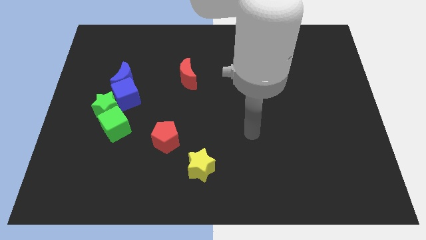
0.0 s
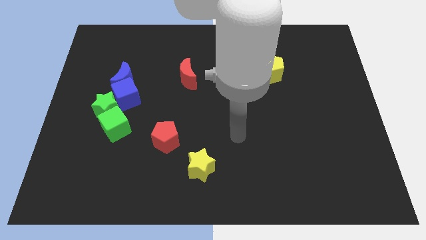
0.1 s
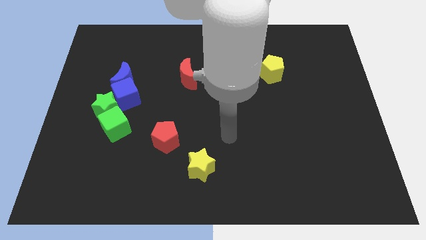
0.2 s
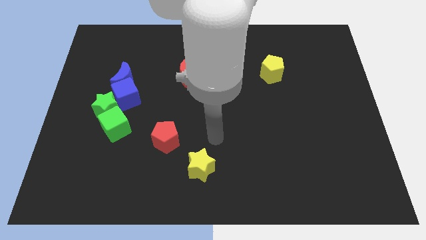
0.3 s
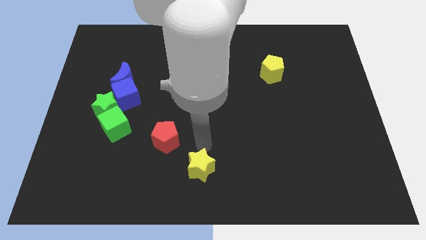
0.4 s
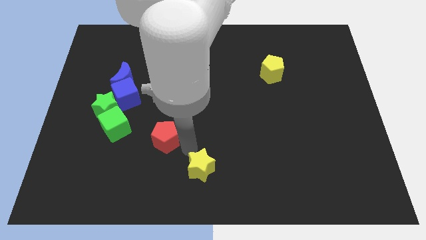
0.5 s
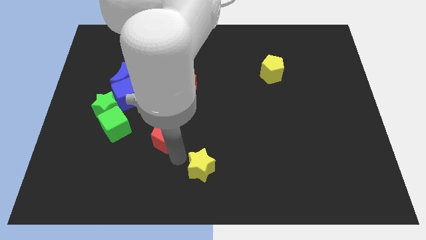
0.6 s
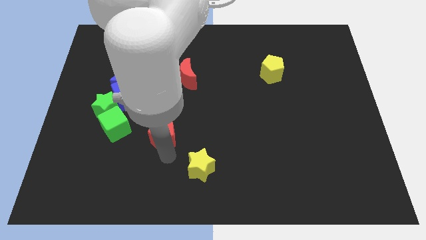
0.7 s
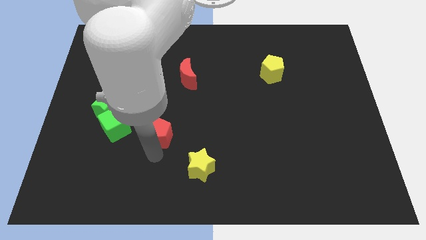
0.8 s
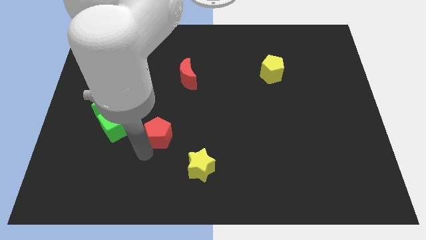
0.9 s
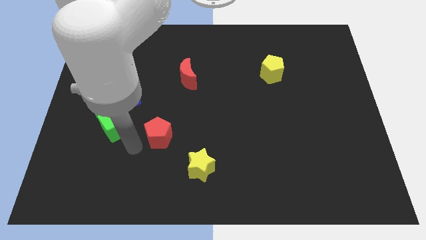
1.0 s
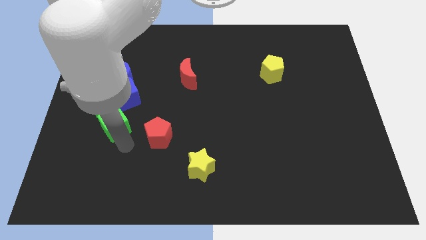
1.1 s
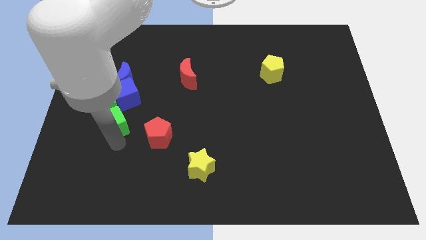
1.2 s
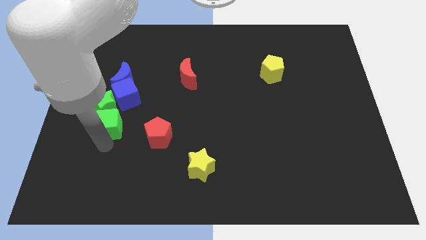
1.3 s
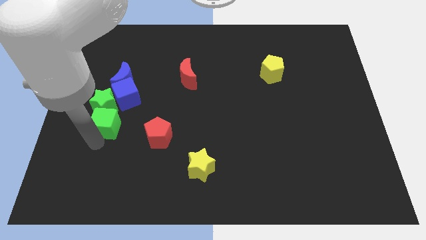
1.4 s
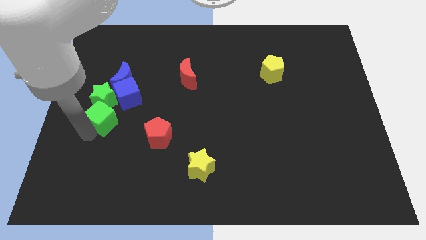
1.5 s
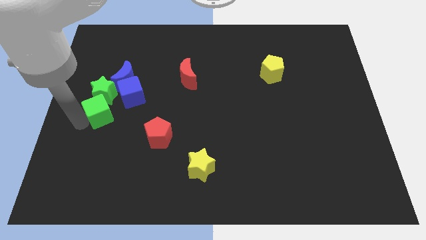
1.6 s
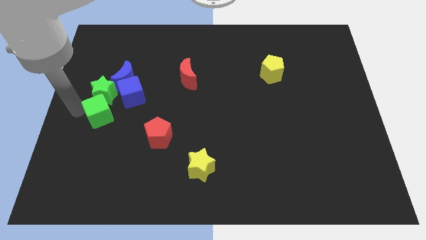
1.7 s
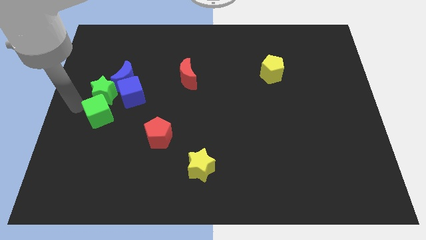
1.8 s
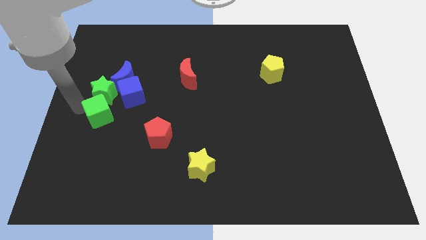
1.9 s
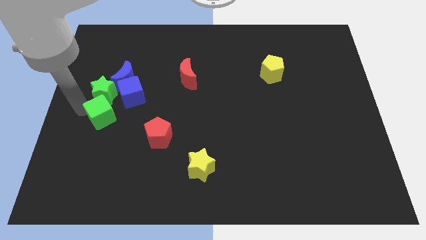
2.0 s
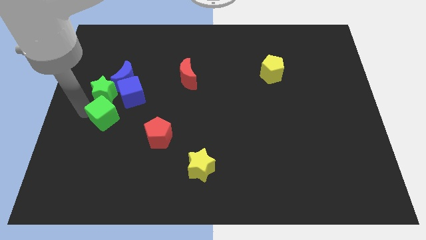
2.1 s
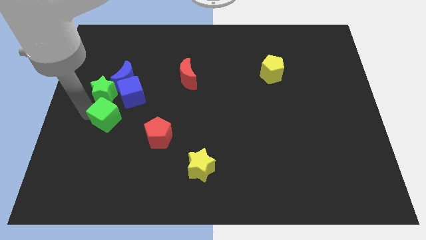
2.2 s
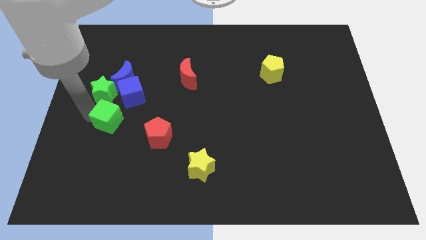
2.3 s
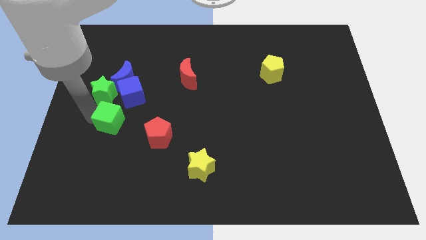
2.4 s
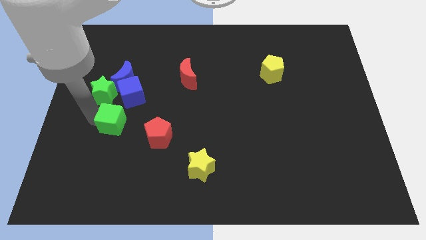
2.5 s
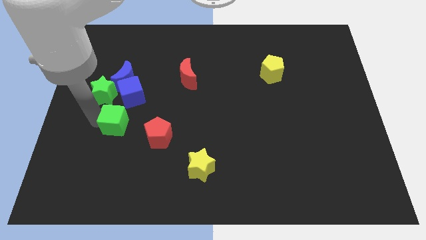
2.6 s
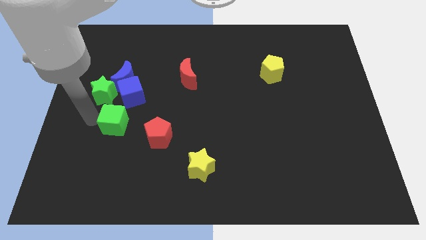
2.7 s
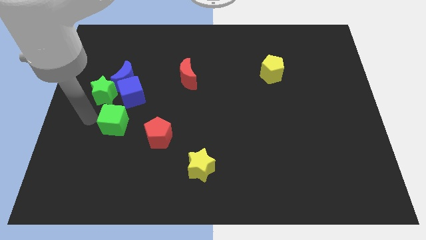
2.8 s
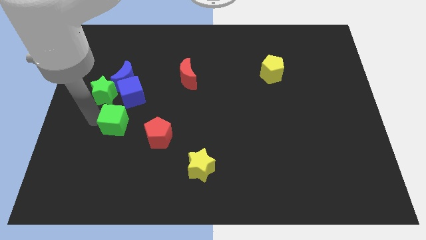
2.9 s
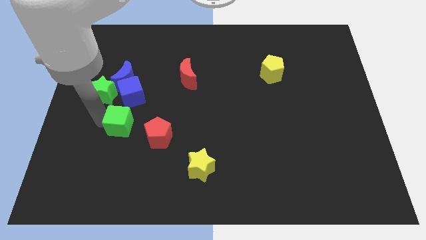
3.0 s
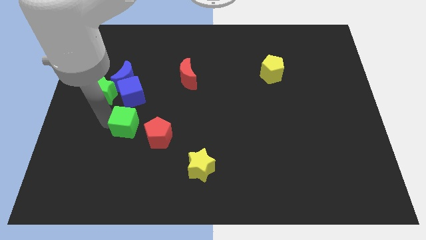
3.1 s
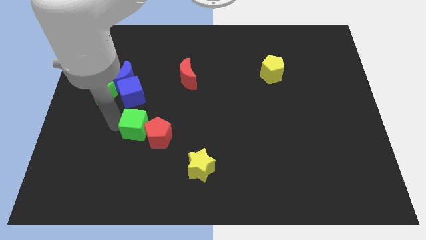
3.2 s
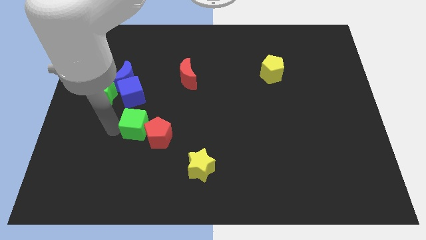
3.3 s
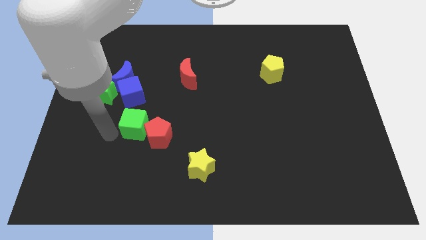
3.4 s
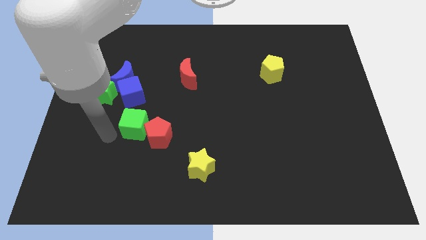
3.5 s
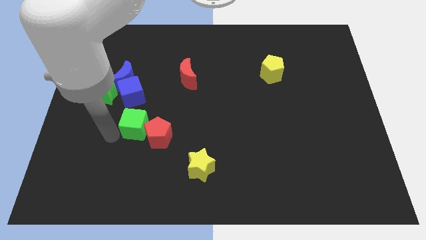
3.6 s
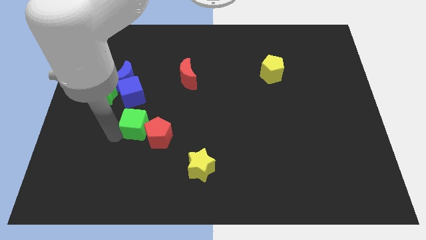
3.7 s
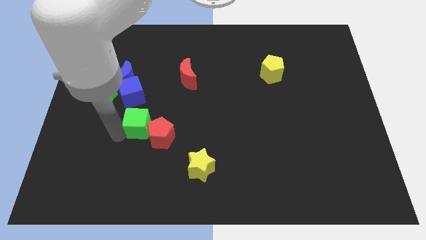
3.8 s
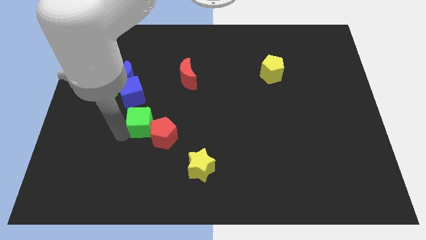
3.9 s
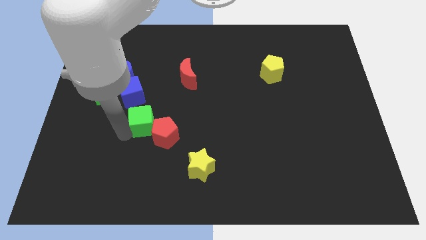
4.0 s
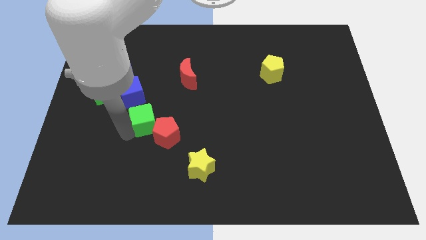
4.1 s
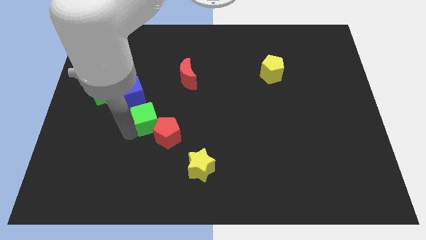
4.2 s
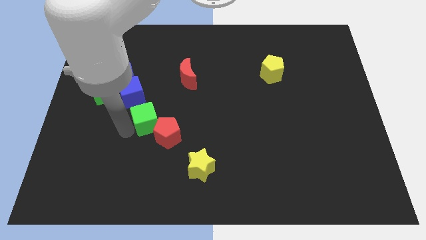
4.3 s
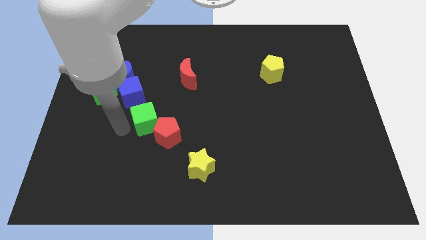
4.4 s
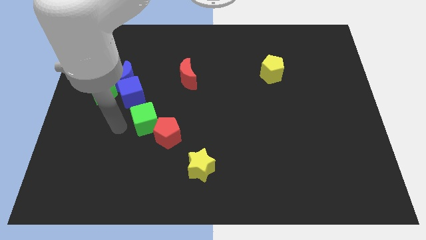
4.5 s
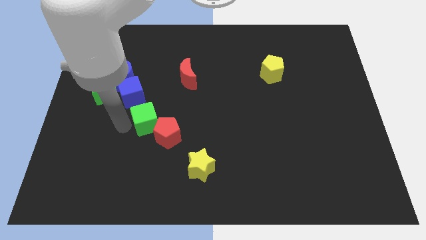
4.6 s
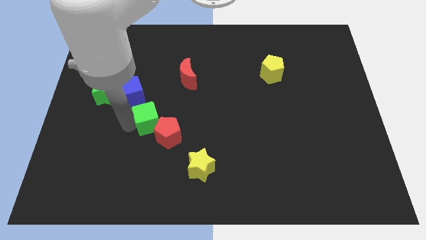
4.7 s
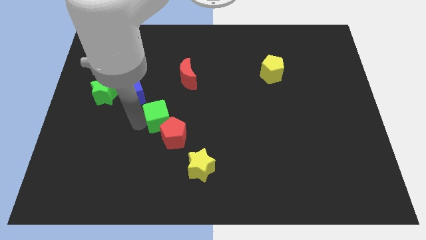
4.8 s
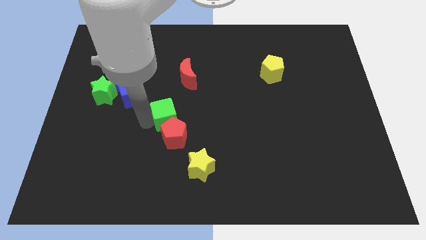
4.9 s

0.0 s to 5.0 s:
put the green cube below the red moon

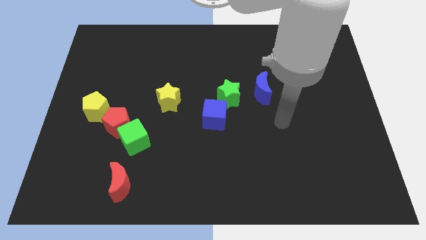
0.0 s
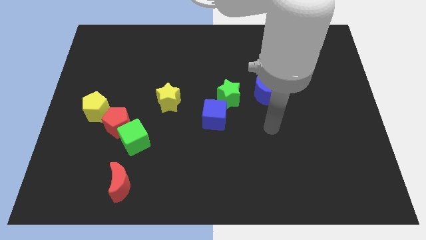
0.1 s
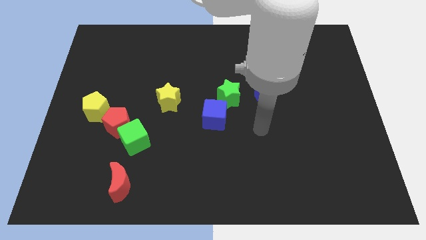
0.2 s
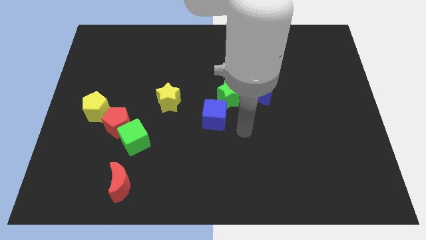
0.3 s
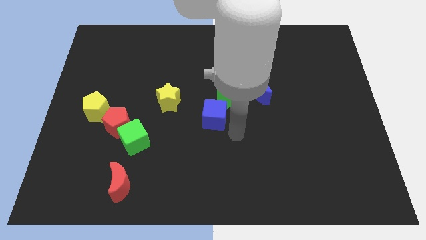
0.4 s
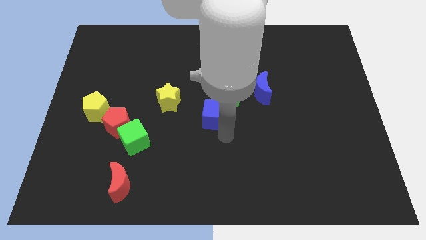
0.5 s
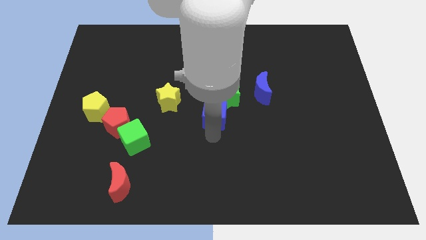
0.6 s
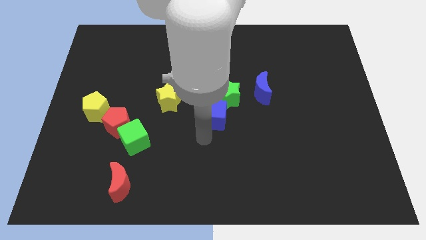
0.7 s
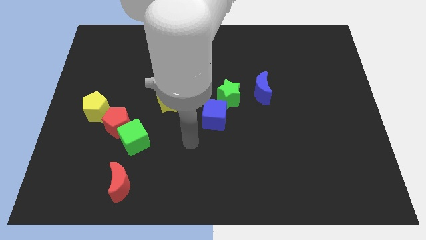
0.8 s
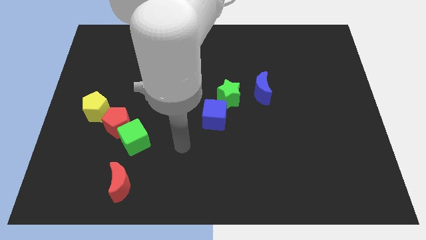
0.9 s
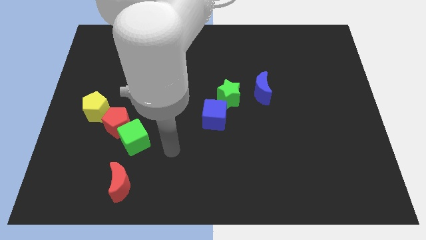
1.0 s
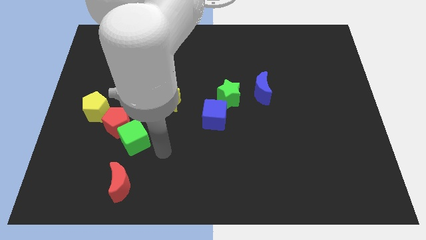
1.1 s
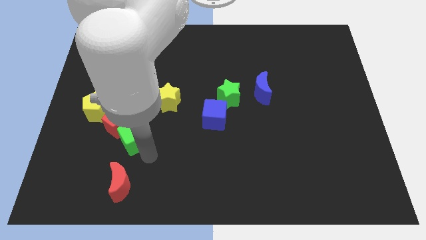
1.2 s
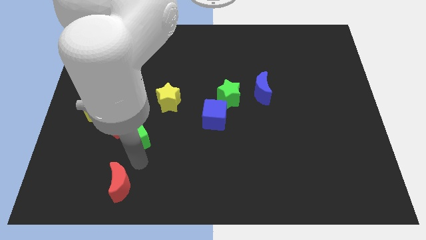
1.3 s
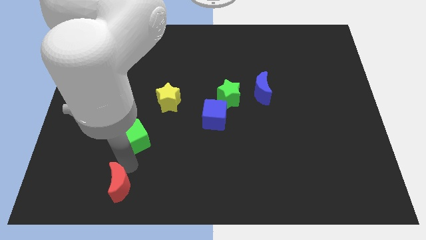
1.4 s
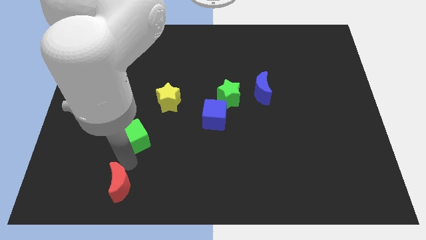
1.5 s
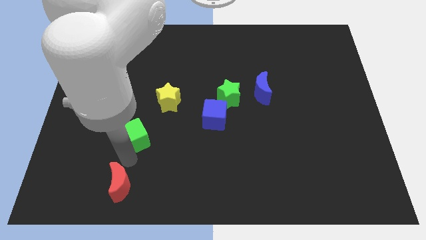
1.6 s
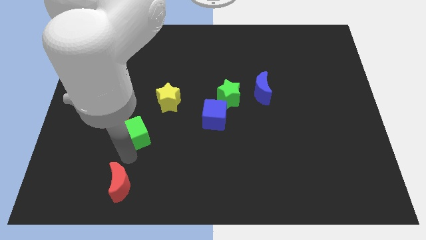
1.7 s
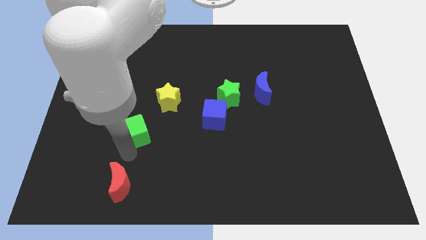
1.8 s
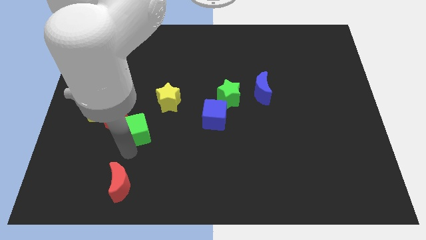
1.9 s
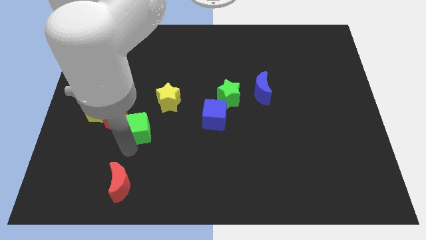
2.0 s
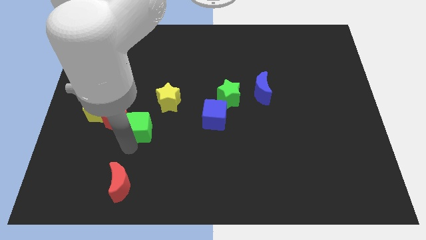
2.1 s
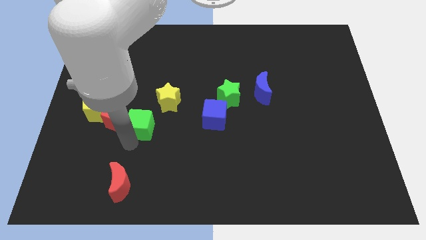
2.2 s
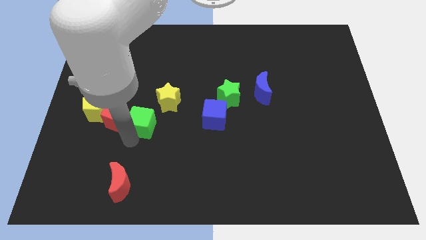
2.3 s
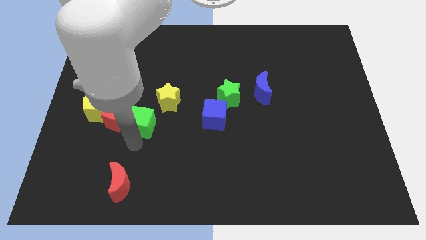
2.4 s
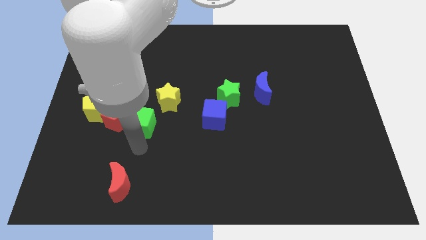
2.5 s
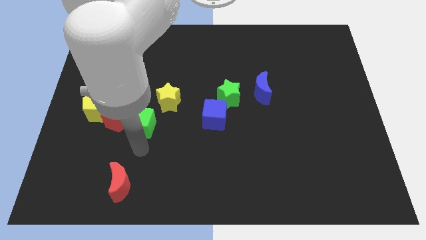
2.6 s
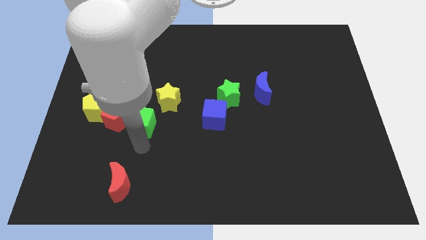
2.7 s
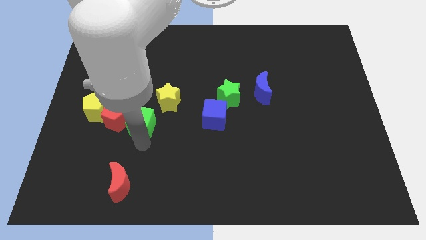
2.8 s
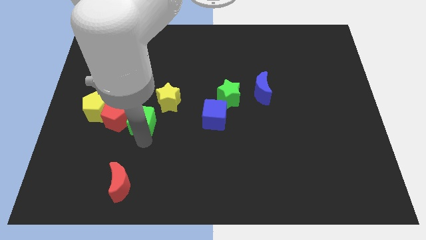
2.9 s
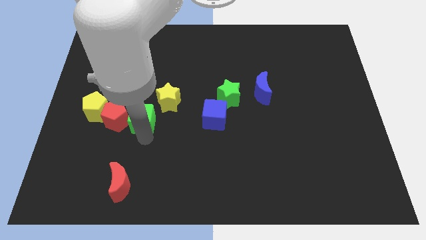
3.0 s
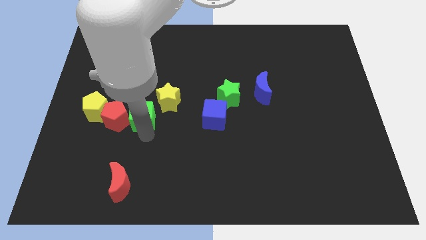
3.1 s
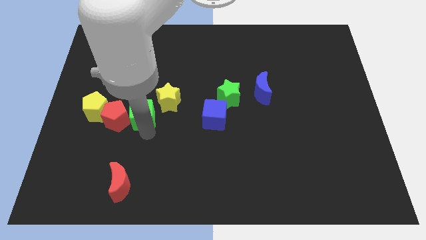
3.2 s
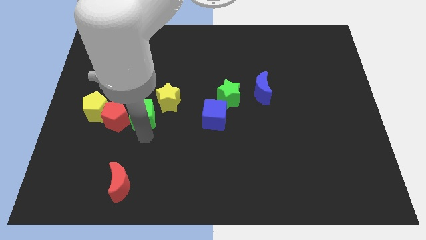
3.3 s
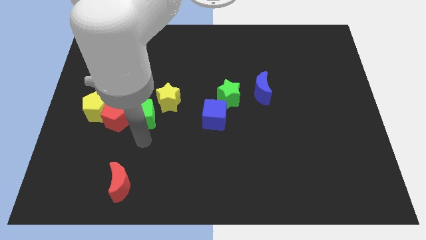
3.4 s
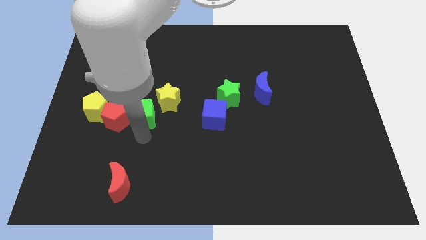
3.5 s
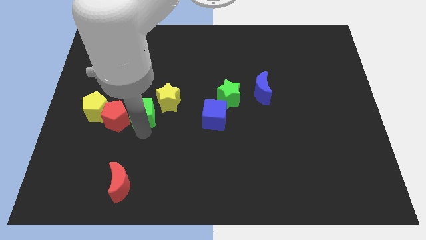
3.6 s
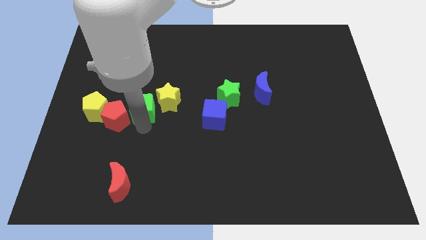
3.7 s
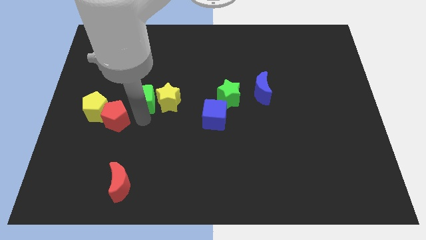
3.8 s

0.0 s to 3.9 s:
move the green cube to the top left side of the yellow star
